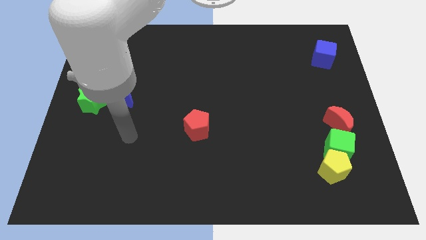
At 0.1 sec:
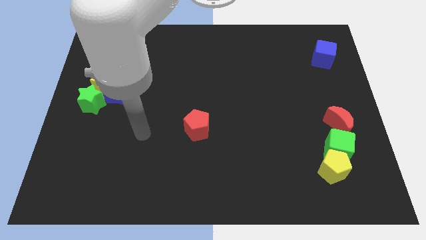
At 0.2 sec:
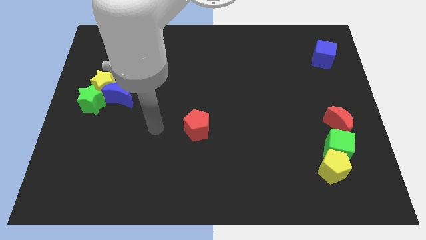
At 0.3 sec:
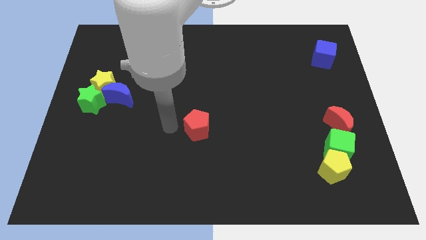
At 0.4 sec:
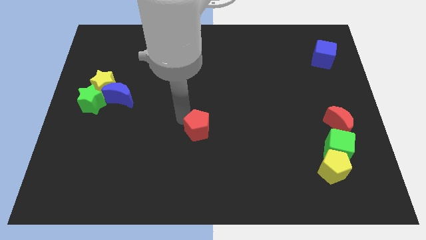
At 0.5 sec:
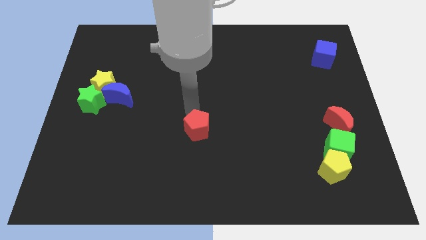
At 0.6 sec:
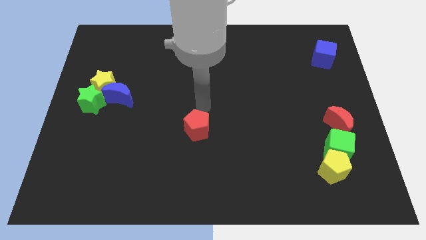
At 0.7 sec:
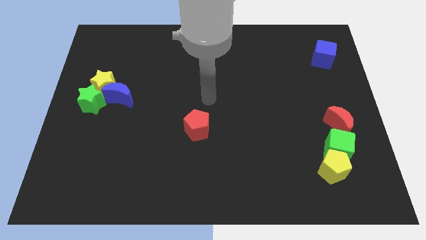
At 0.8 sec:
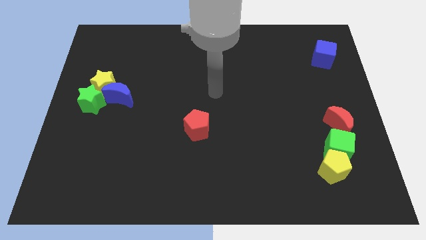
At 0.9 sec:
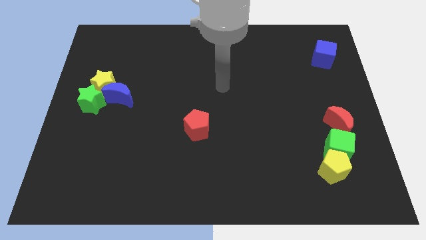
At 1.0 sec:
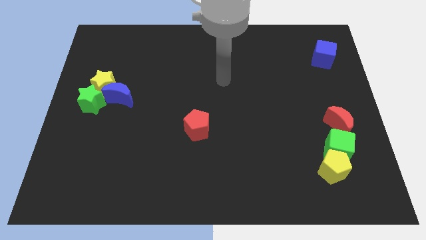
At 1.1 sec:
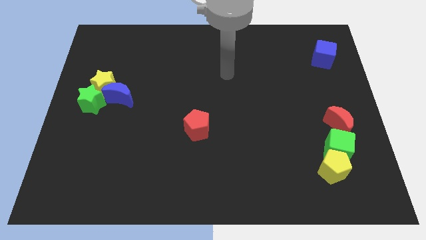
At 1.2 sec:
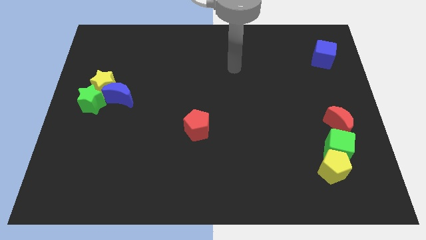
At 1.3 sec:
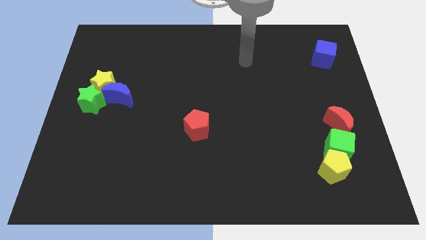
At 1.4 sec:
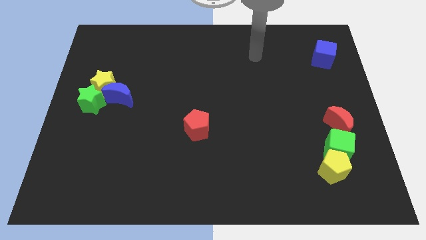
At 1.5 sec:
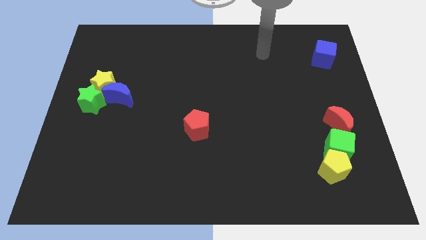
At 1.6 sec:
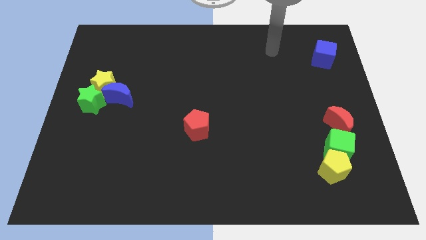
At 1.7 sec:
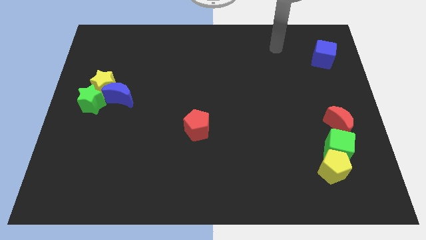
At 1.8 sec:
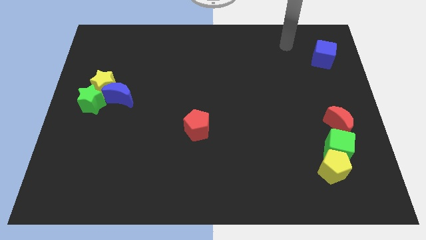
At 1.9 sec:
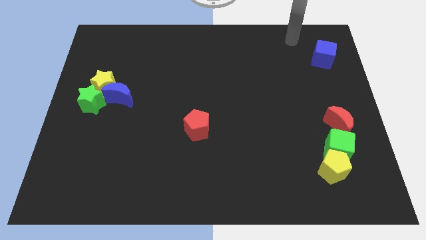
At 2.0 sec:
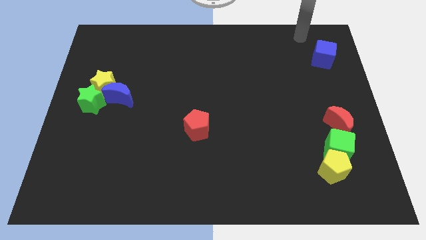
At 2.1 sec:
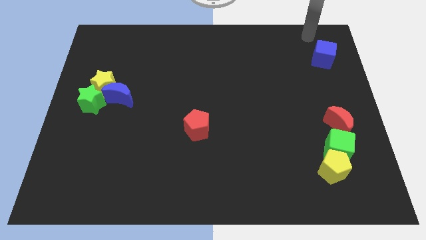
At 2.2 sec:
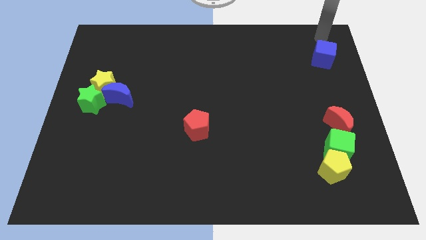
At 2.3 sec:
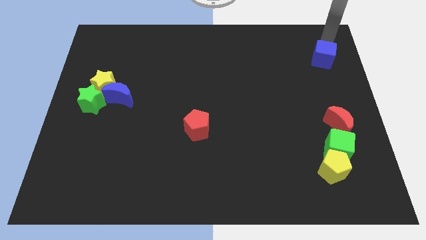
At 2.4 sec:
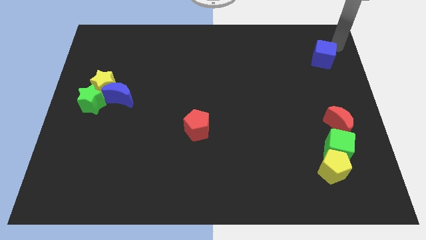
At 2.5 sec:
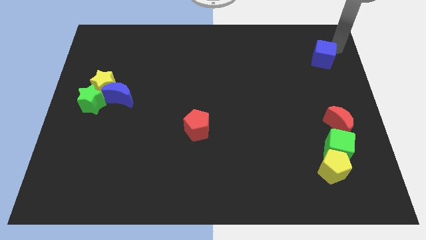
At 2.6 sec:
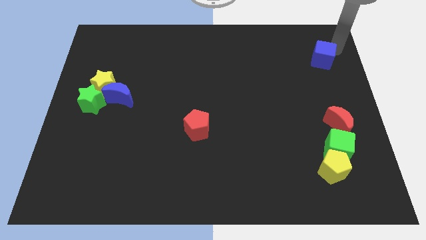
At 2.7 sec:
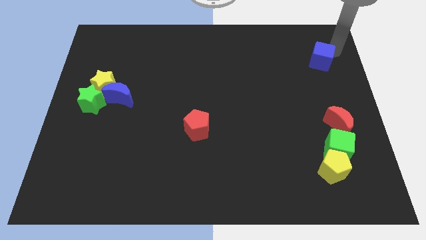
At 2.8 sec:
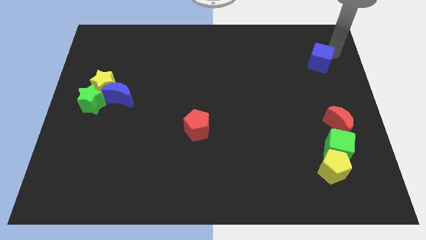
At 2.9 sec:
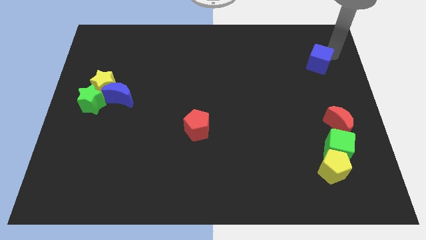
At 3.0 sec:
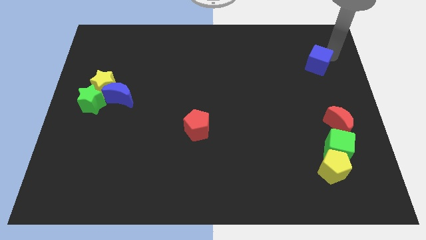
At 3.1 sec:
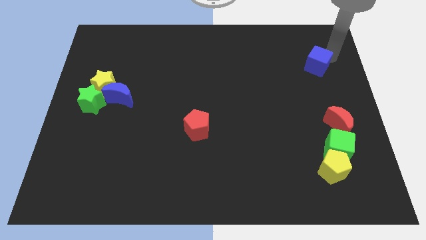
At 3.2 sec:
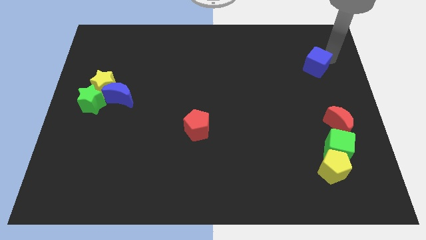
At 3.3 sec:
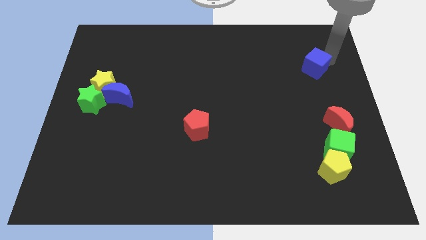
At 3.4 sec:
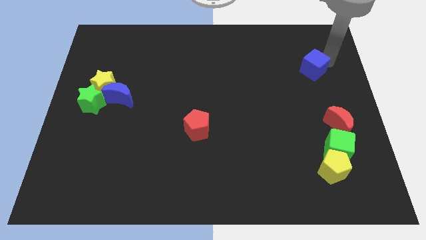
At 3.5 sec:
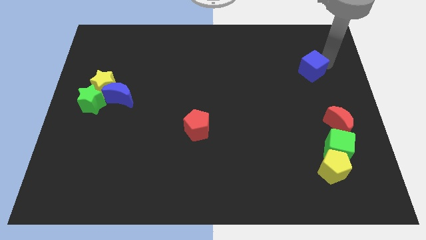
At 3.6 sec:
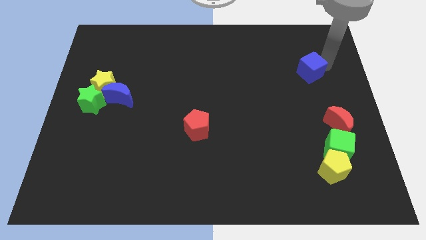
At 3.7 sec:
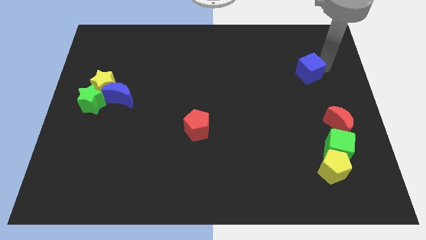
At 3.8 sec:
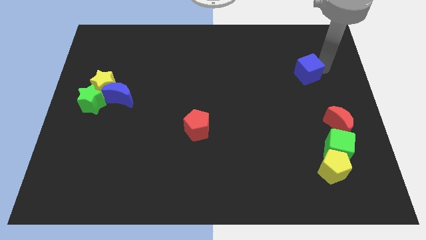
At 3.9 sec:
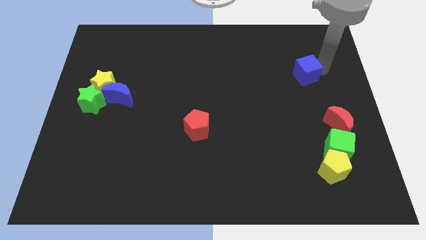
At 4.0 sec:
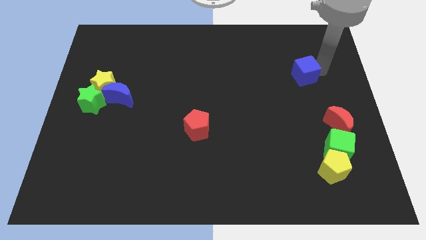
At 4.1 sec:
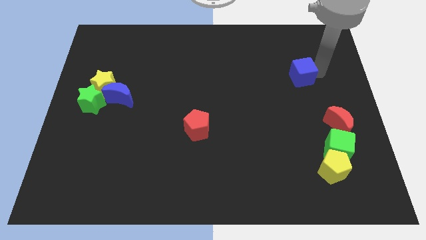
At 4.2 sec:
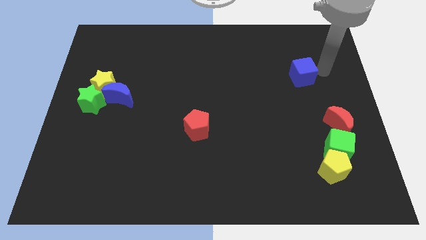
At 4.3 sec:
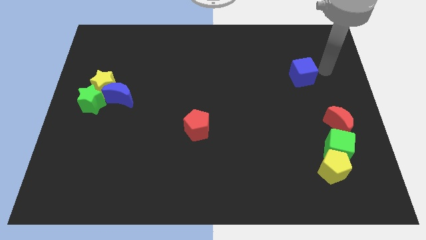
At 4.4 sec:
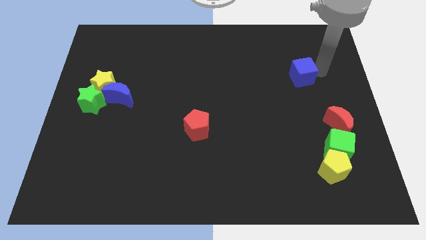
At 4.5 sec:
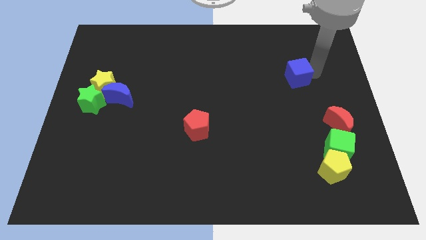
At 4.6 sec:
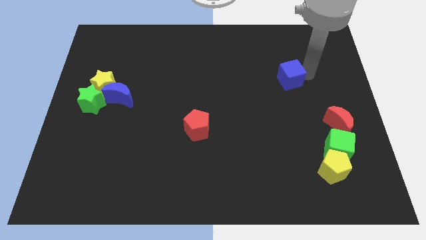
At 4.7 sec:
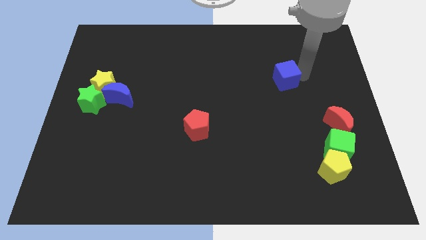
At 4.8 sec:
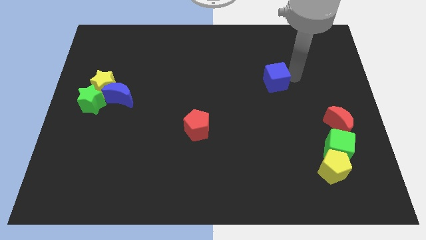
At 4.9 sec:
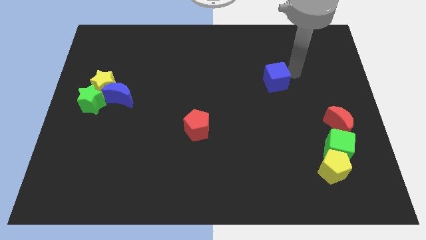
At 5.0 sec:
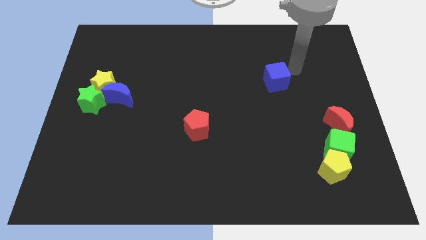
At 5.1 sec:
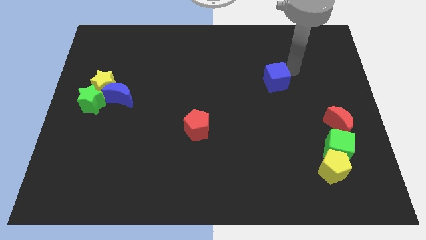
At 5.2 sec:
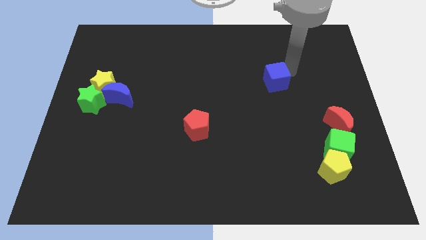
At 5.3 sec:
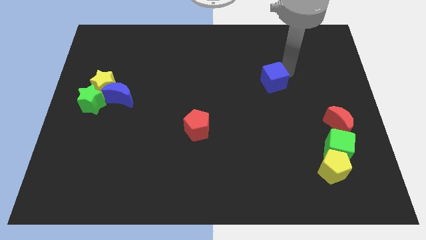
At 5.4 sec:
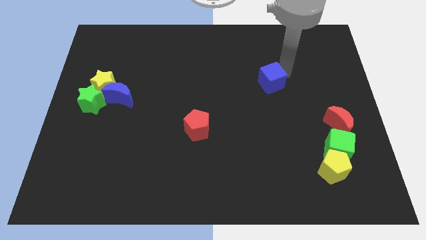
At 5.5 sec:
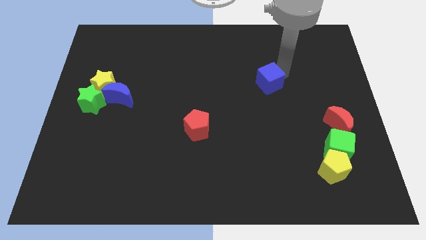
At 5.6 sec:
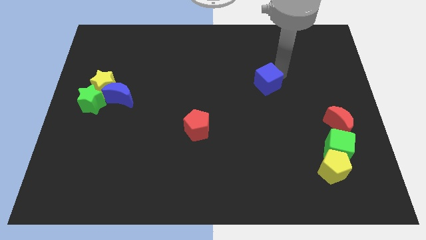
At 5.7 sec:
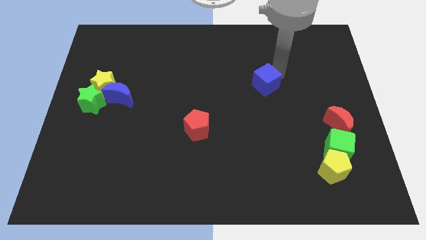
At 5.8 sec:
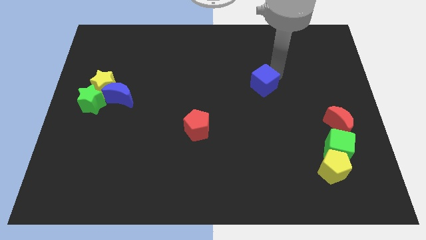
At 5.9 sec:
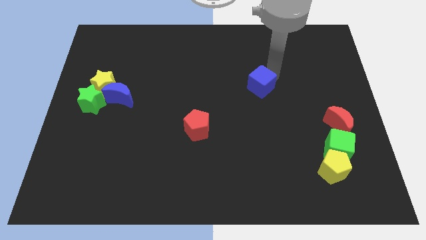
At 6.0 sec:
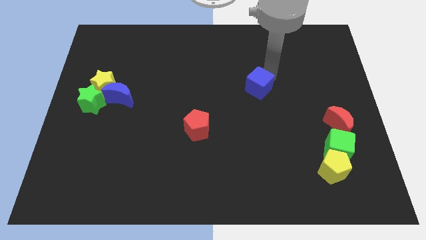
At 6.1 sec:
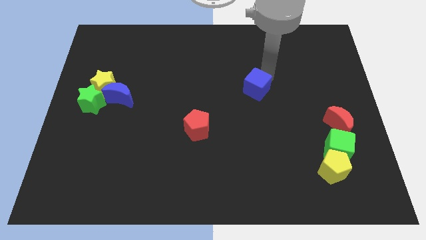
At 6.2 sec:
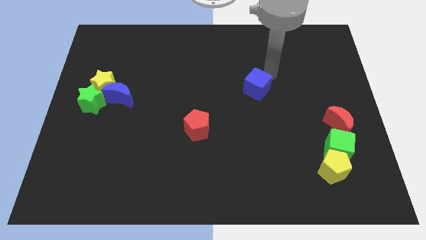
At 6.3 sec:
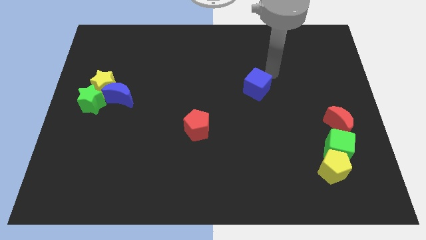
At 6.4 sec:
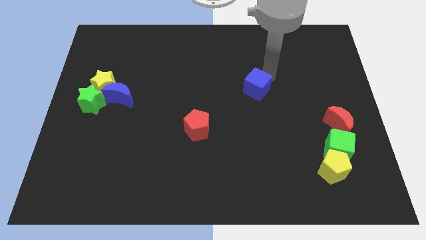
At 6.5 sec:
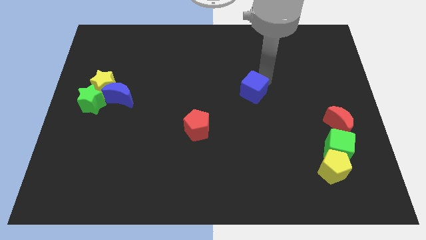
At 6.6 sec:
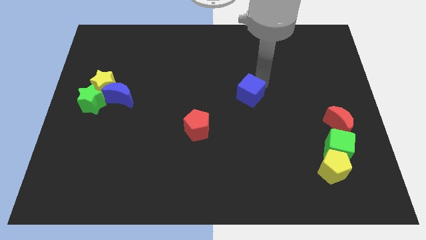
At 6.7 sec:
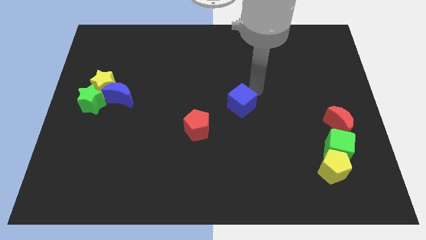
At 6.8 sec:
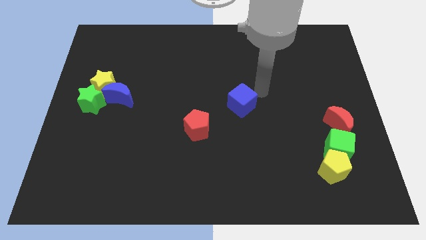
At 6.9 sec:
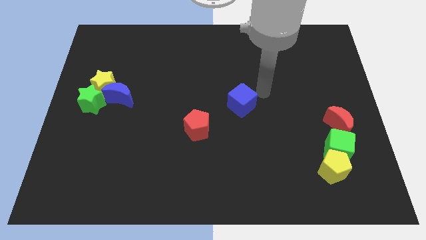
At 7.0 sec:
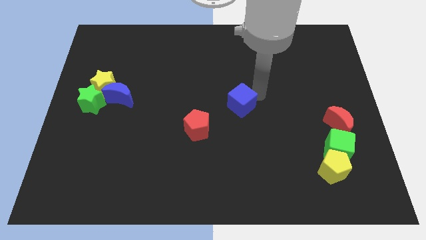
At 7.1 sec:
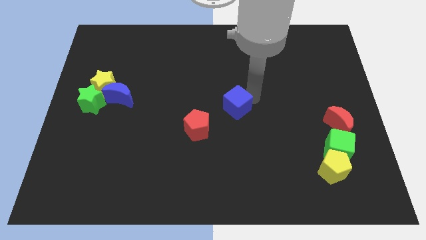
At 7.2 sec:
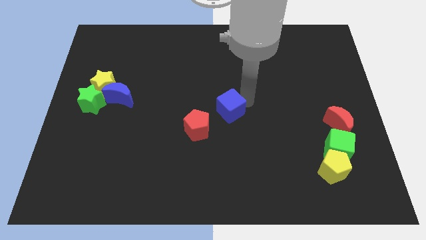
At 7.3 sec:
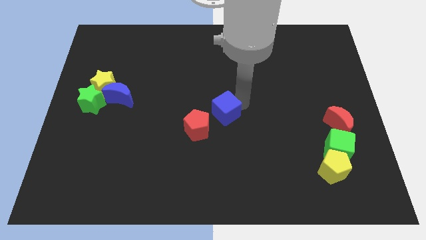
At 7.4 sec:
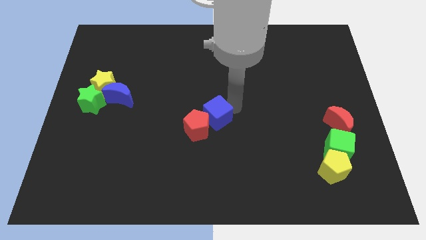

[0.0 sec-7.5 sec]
push the blue cube towards the red pentagon
